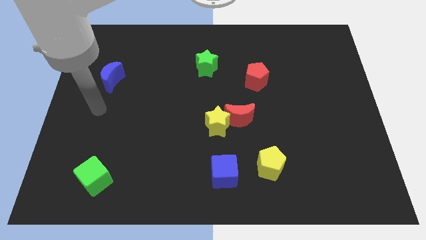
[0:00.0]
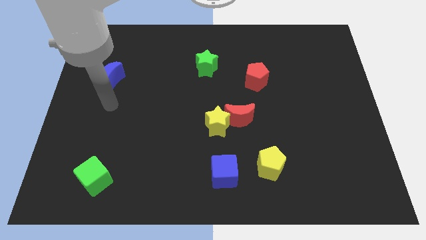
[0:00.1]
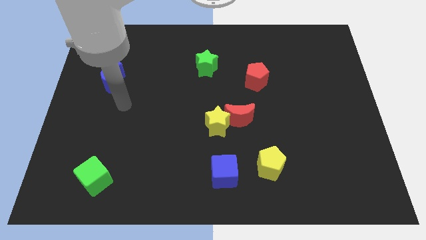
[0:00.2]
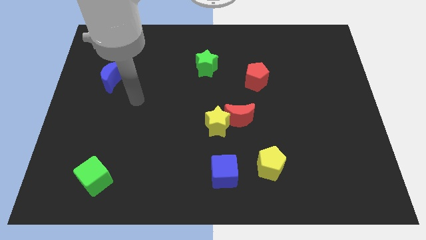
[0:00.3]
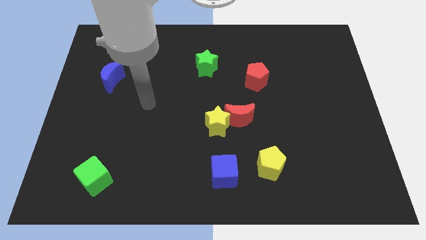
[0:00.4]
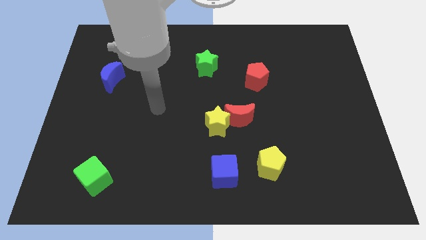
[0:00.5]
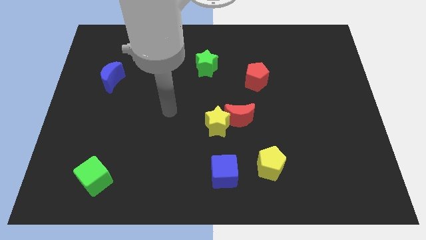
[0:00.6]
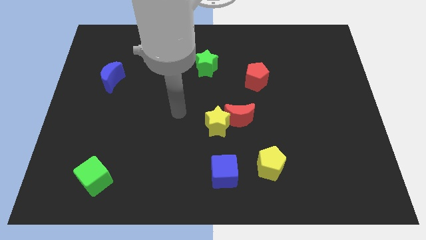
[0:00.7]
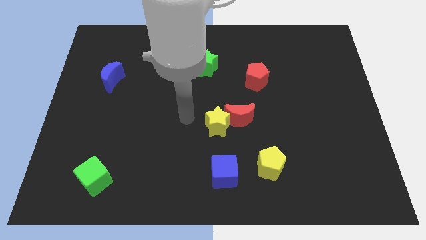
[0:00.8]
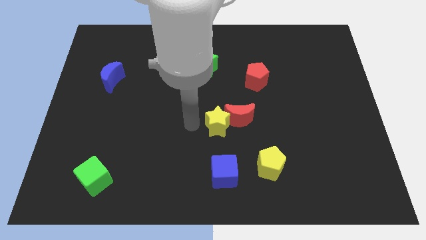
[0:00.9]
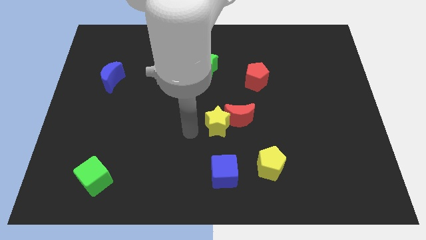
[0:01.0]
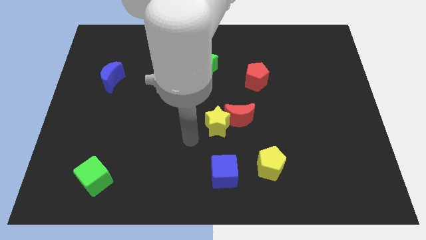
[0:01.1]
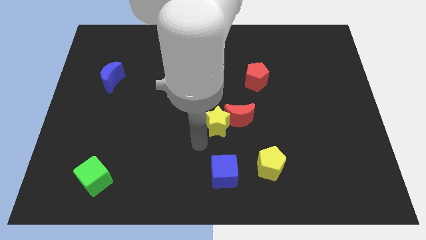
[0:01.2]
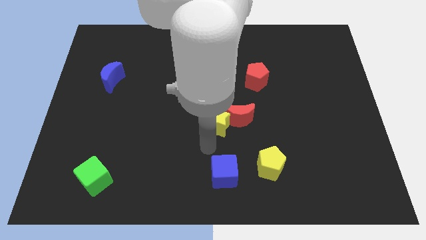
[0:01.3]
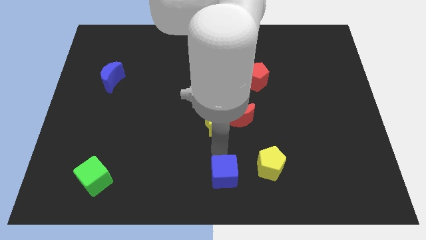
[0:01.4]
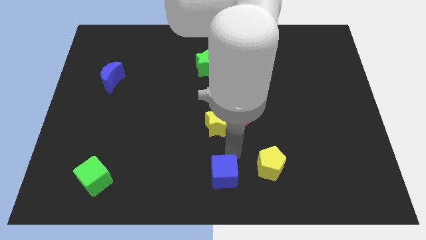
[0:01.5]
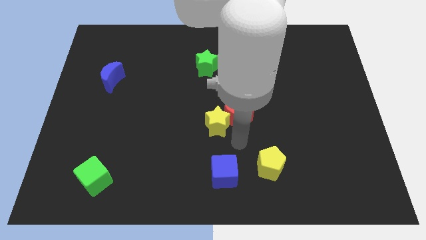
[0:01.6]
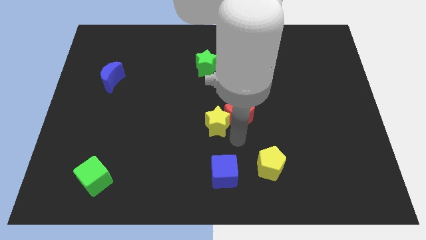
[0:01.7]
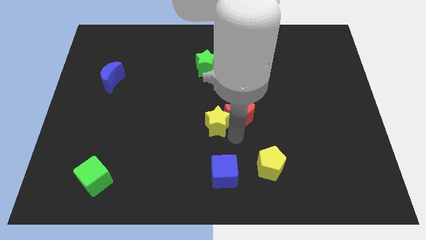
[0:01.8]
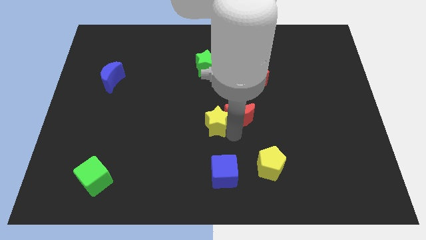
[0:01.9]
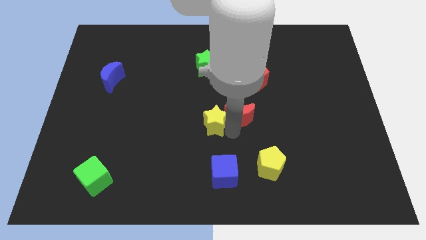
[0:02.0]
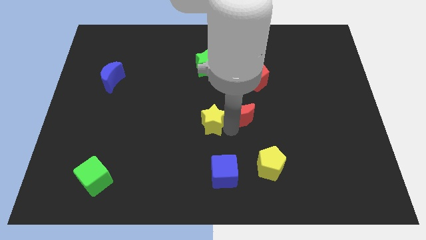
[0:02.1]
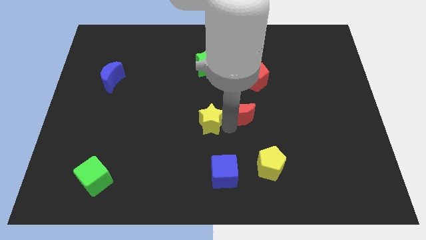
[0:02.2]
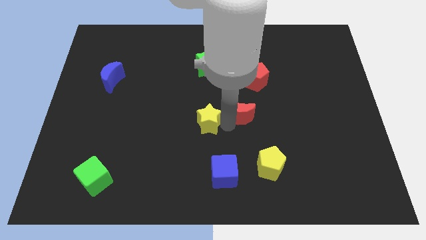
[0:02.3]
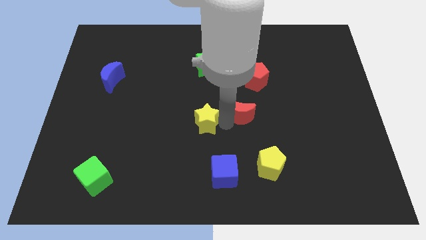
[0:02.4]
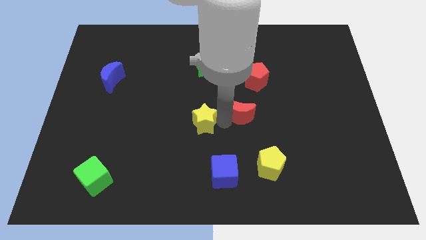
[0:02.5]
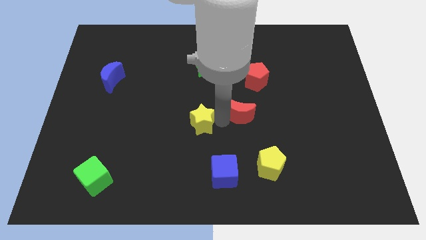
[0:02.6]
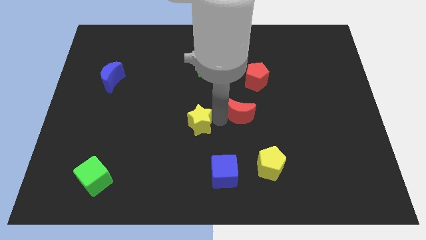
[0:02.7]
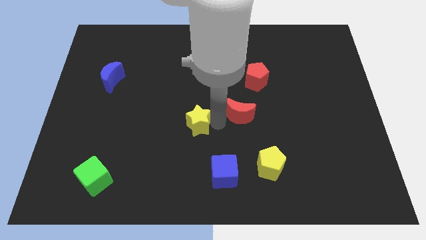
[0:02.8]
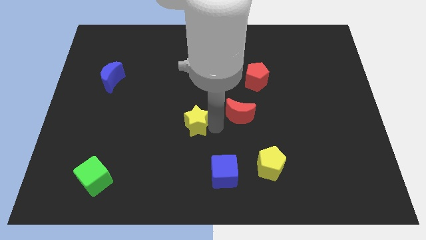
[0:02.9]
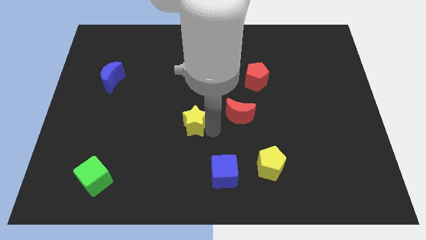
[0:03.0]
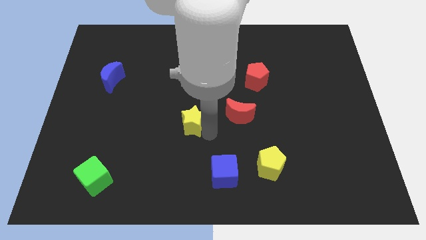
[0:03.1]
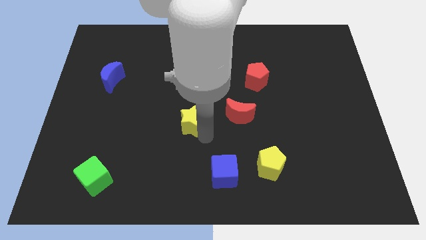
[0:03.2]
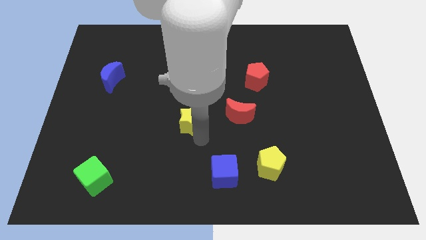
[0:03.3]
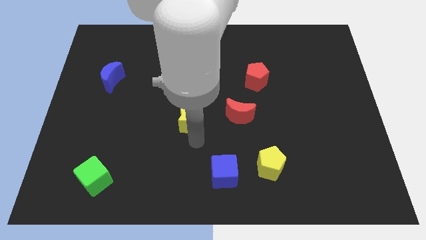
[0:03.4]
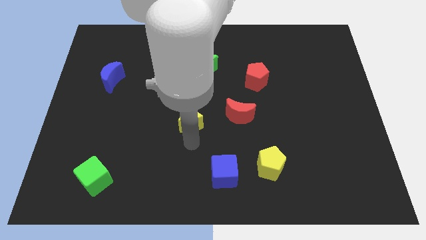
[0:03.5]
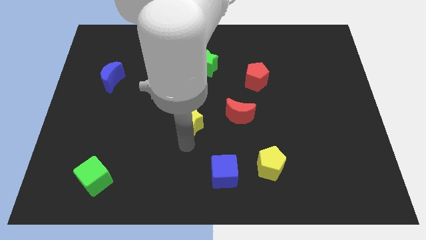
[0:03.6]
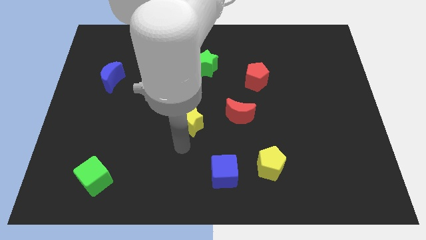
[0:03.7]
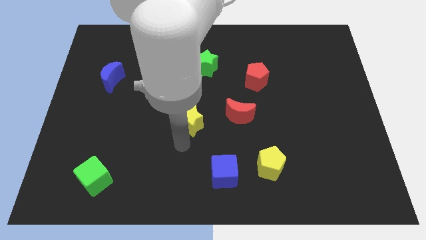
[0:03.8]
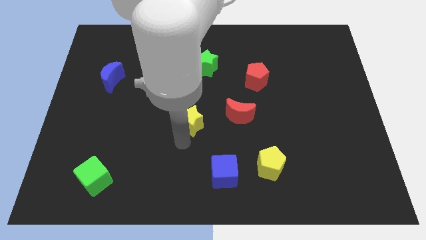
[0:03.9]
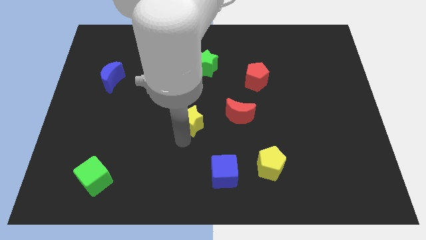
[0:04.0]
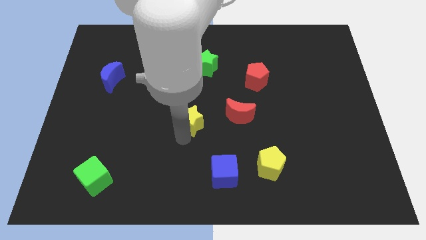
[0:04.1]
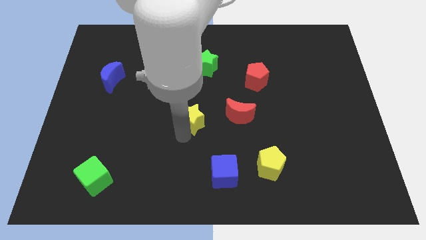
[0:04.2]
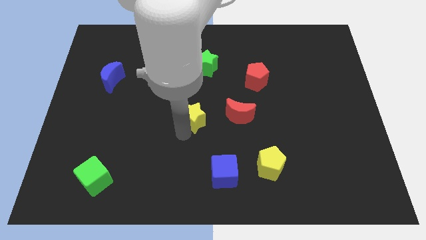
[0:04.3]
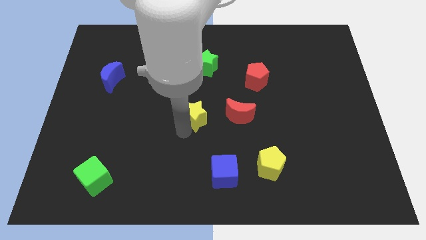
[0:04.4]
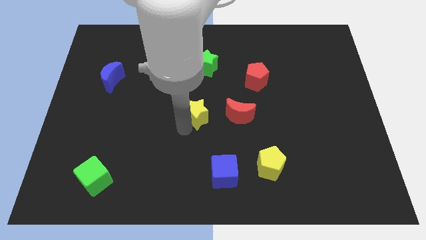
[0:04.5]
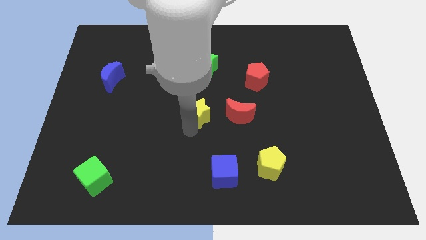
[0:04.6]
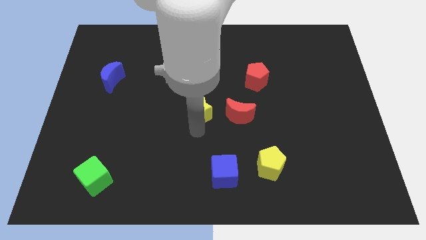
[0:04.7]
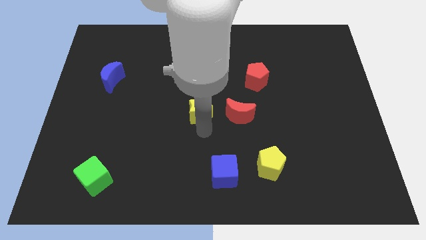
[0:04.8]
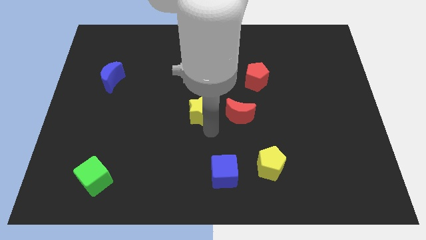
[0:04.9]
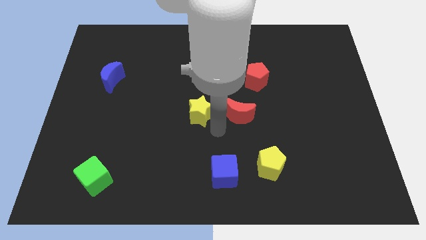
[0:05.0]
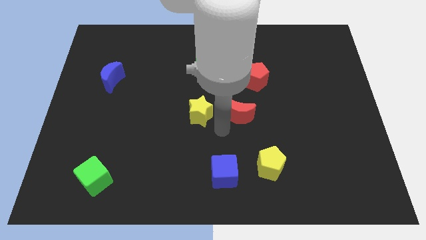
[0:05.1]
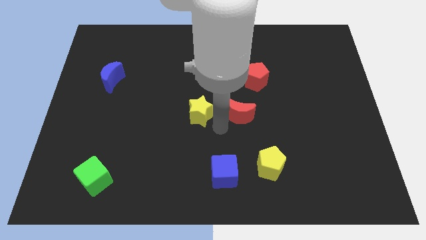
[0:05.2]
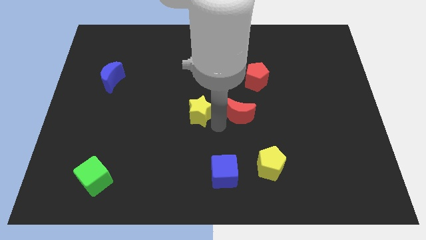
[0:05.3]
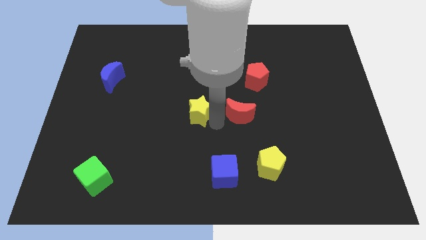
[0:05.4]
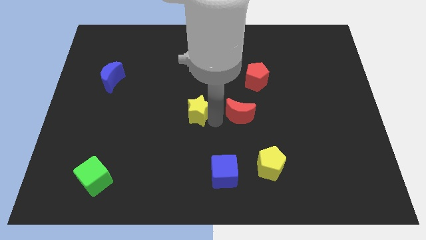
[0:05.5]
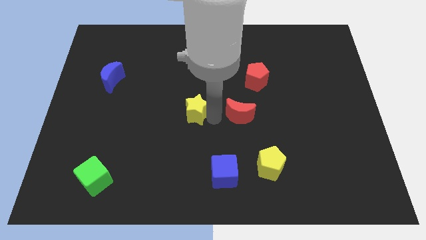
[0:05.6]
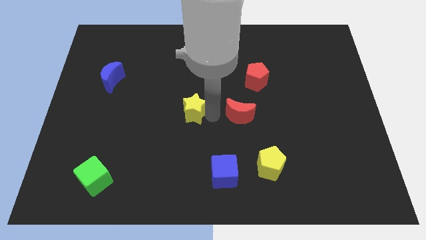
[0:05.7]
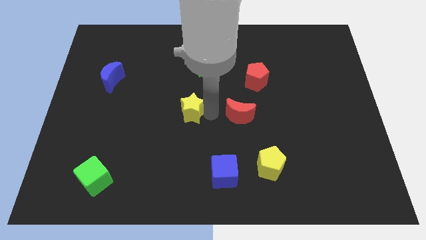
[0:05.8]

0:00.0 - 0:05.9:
slightly move the yellow star diagonally upwards and left

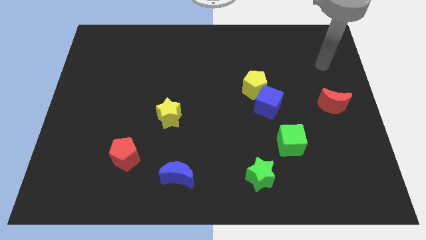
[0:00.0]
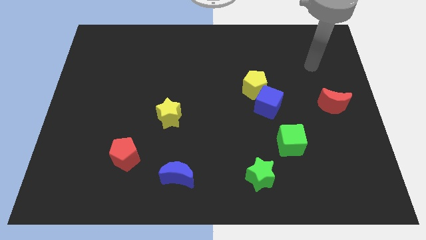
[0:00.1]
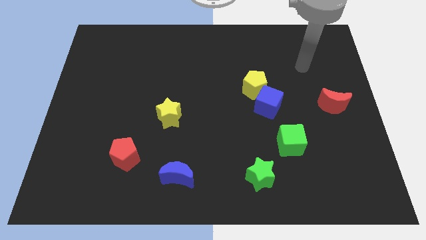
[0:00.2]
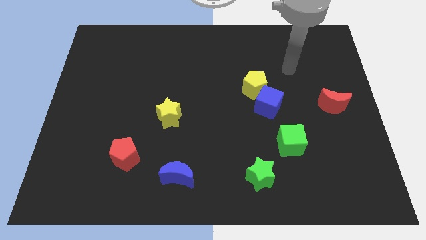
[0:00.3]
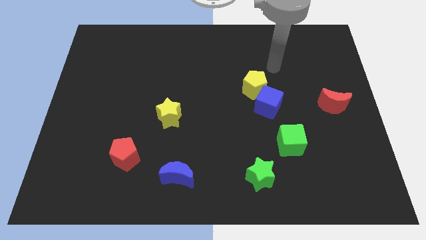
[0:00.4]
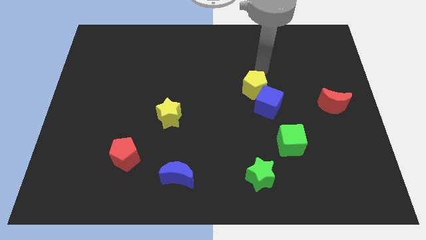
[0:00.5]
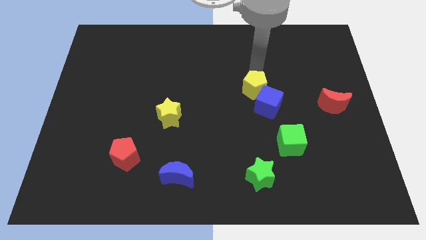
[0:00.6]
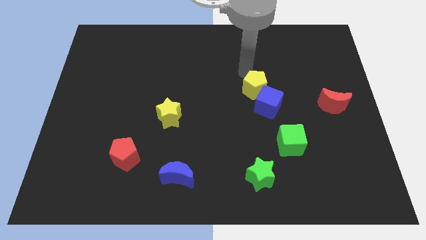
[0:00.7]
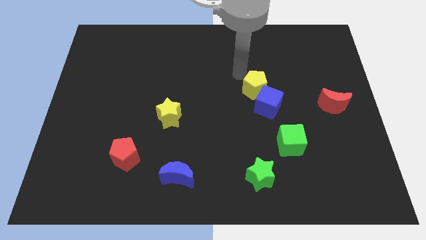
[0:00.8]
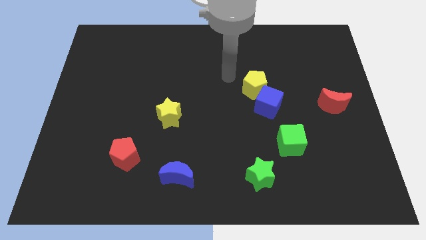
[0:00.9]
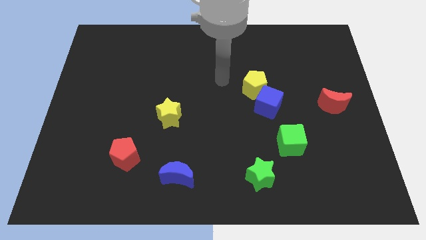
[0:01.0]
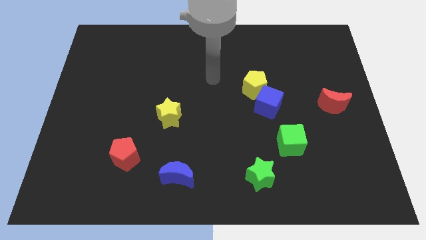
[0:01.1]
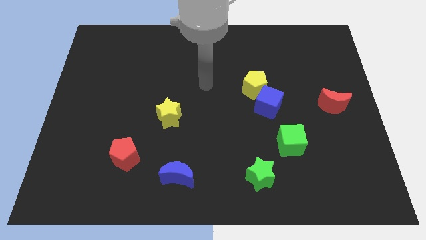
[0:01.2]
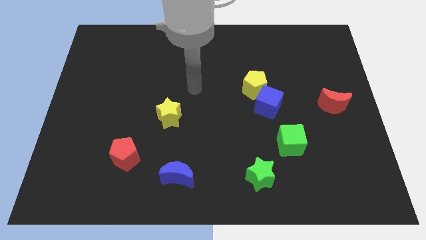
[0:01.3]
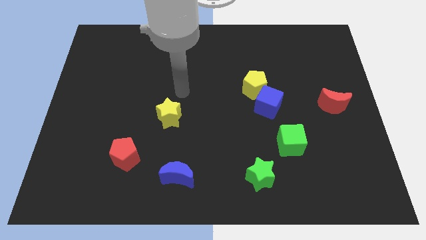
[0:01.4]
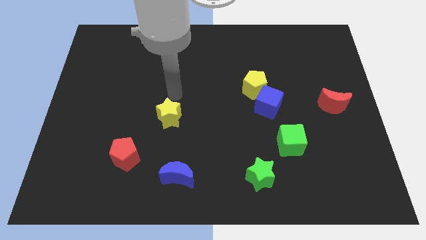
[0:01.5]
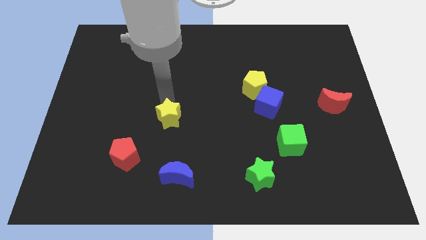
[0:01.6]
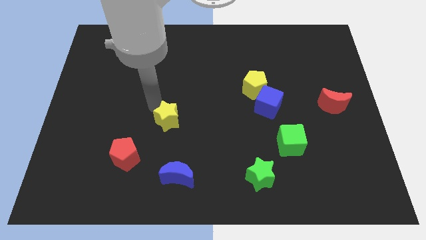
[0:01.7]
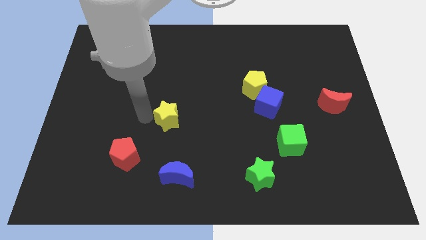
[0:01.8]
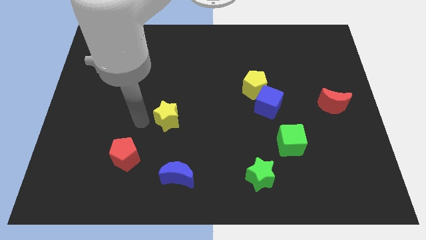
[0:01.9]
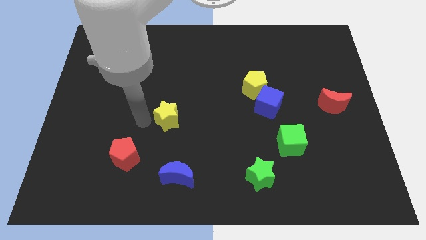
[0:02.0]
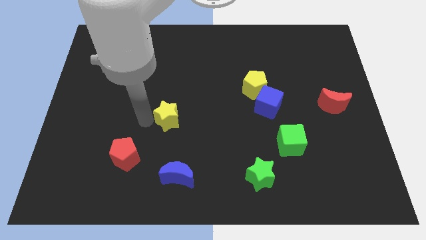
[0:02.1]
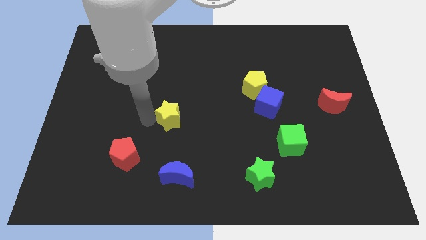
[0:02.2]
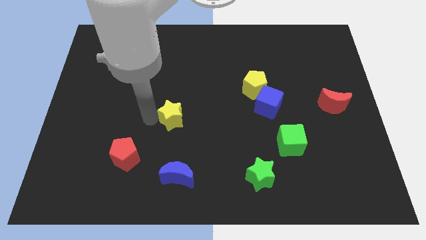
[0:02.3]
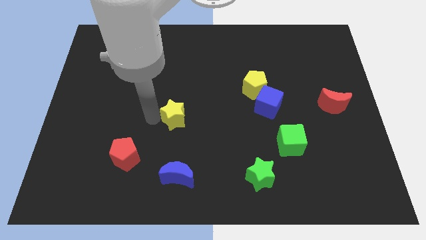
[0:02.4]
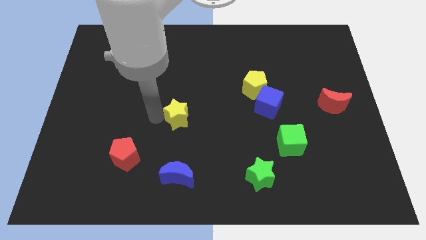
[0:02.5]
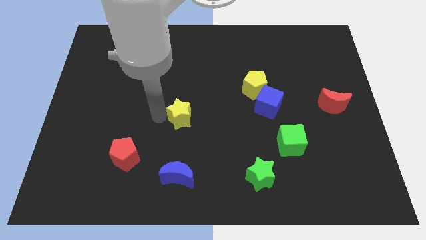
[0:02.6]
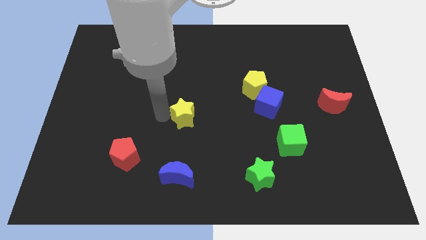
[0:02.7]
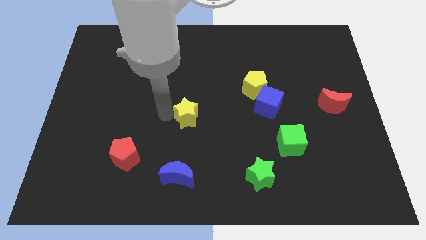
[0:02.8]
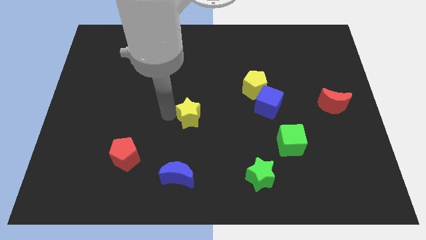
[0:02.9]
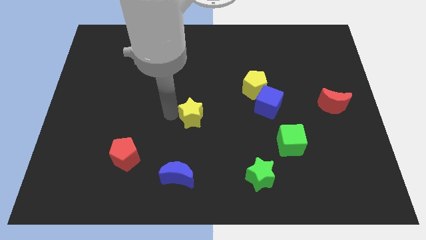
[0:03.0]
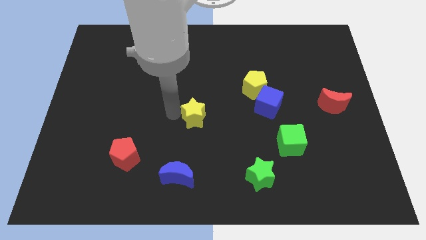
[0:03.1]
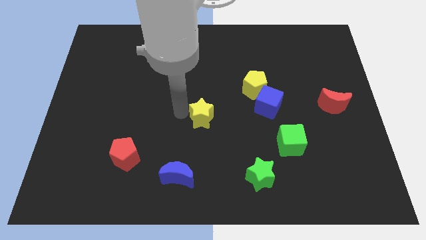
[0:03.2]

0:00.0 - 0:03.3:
move the yellow star a bit right
